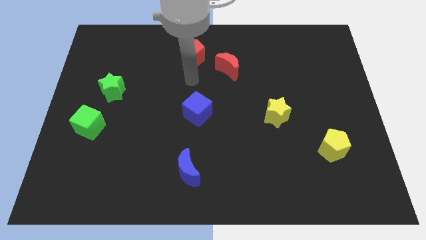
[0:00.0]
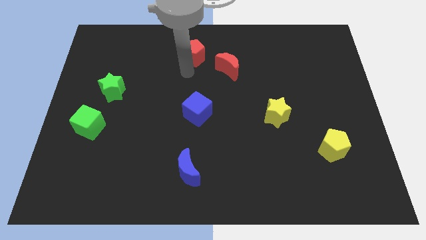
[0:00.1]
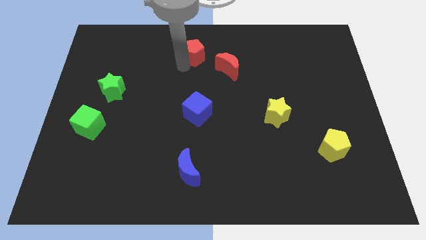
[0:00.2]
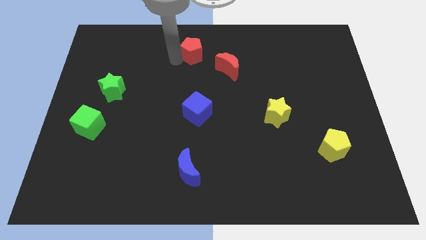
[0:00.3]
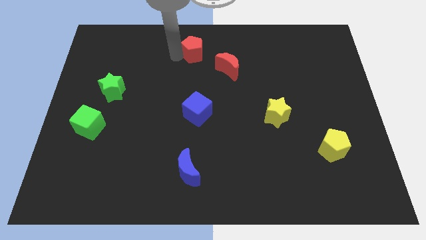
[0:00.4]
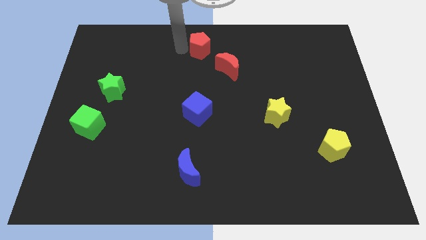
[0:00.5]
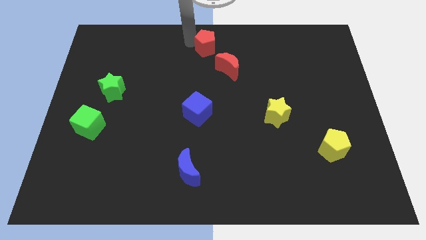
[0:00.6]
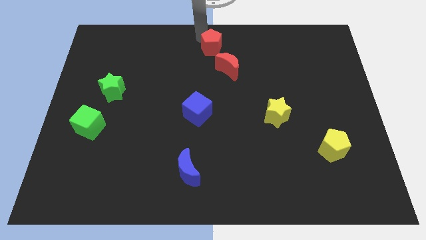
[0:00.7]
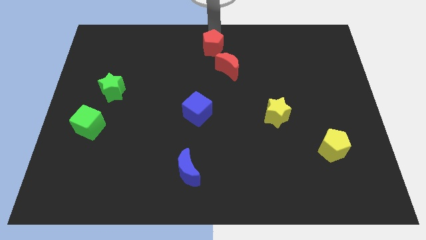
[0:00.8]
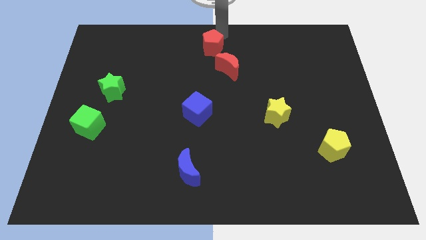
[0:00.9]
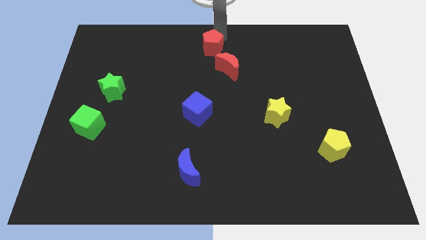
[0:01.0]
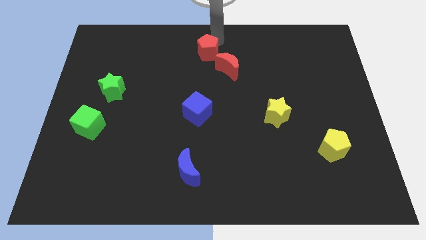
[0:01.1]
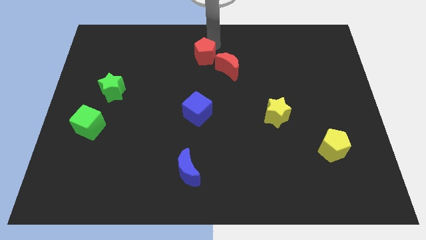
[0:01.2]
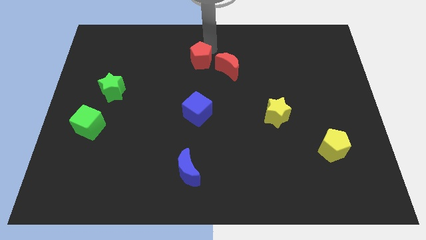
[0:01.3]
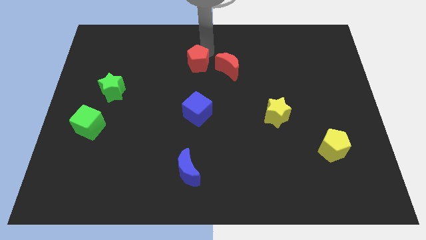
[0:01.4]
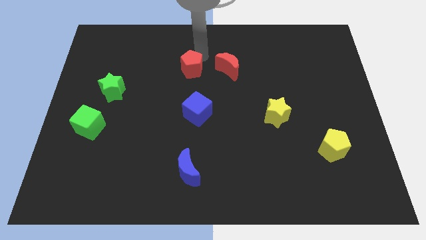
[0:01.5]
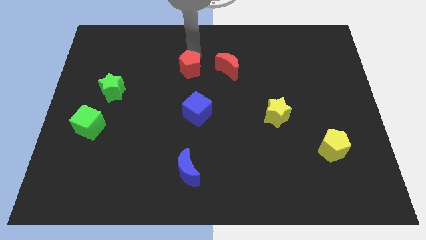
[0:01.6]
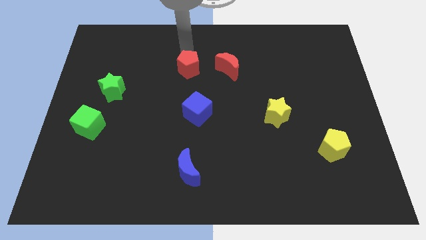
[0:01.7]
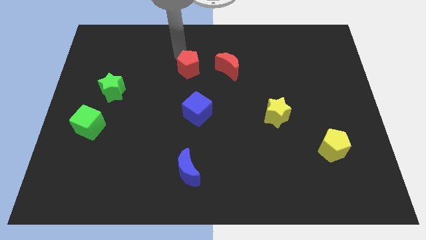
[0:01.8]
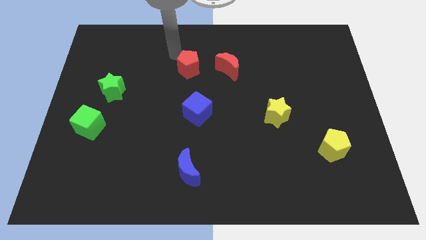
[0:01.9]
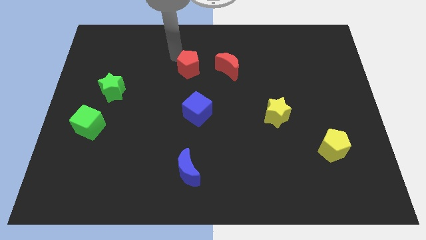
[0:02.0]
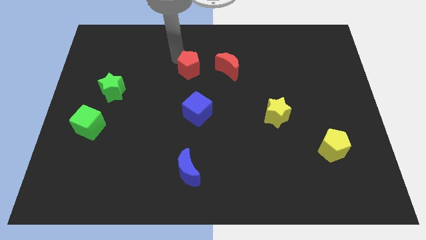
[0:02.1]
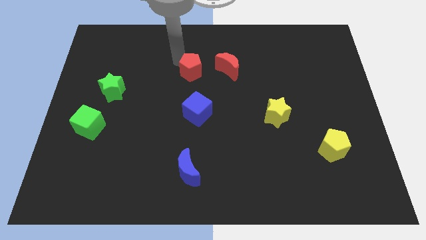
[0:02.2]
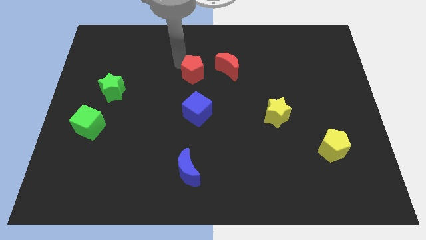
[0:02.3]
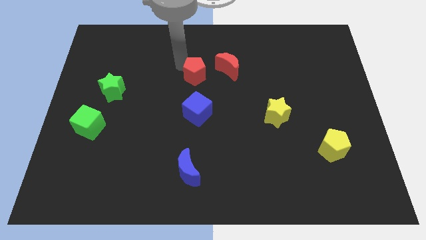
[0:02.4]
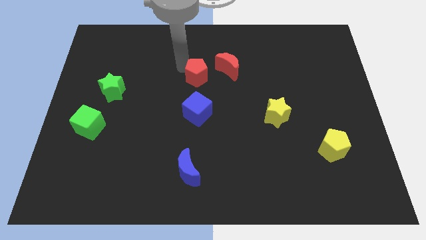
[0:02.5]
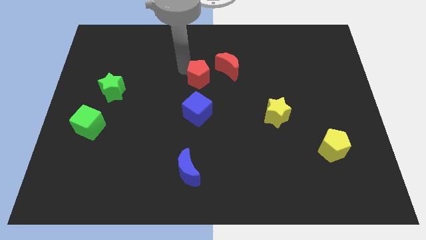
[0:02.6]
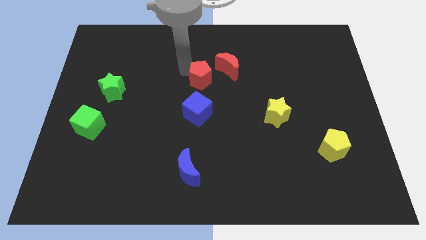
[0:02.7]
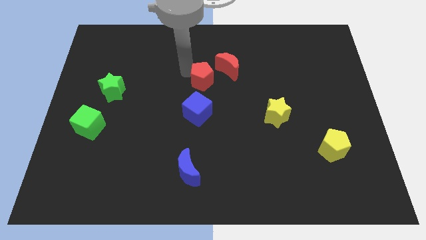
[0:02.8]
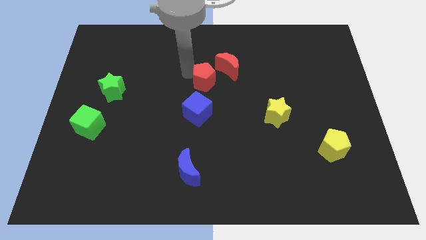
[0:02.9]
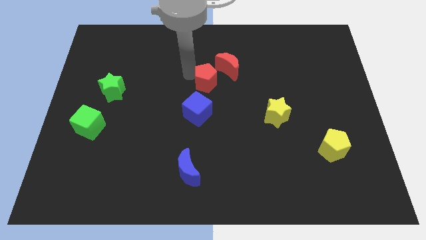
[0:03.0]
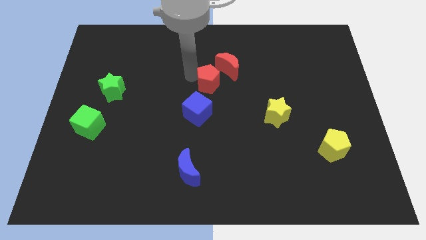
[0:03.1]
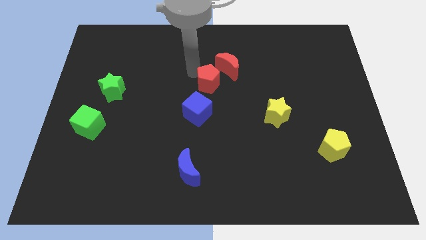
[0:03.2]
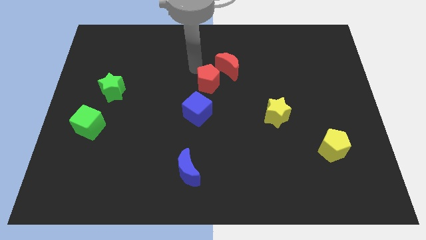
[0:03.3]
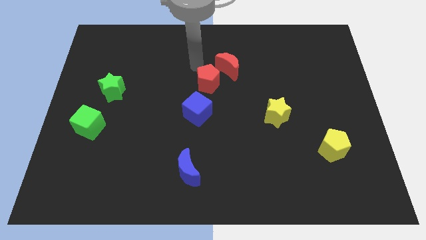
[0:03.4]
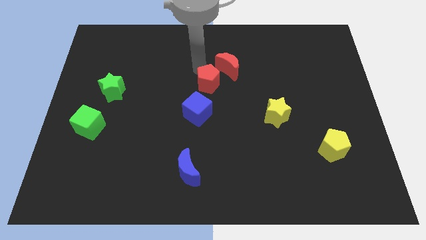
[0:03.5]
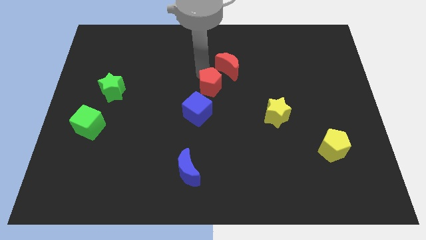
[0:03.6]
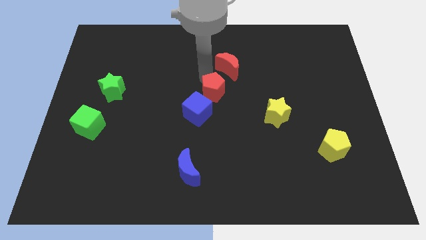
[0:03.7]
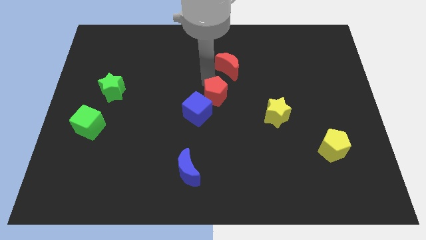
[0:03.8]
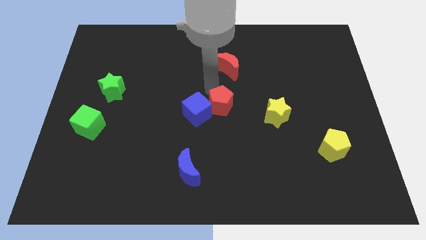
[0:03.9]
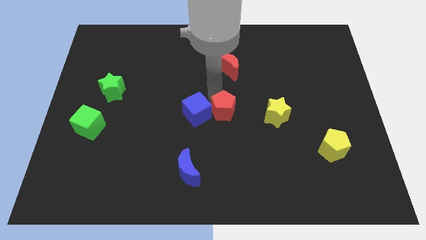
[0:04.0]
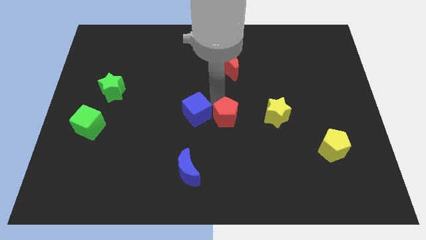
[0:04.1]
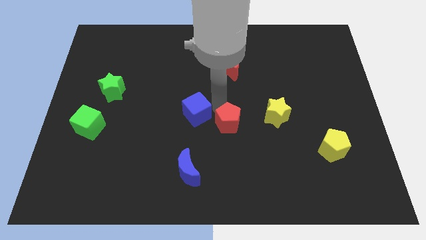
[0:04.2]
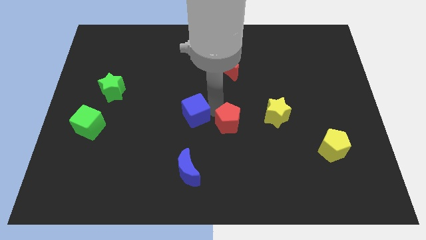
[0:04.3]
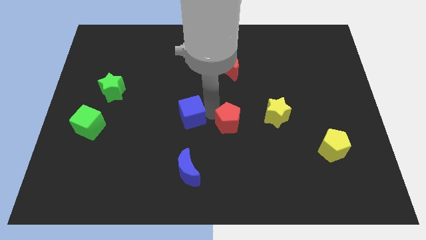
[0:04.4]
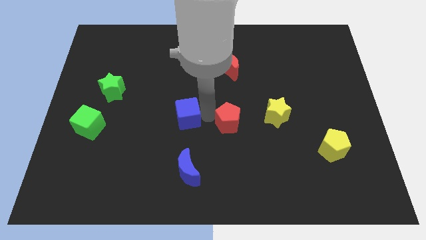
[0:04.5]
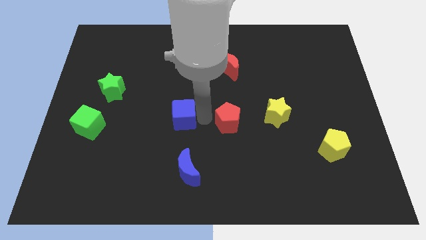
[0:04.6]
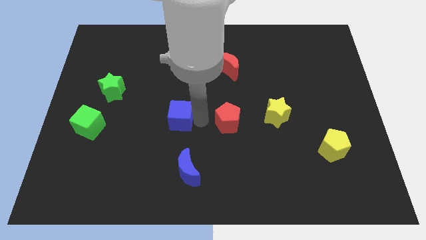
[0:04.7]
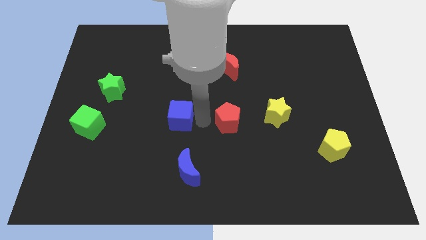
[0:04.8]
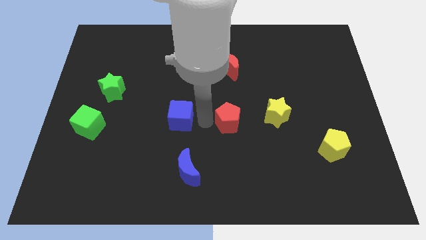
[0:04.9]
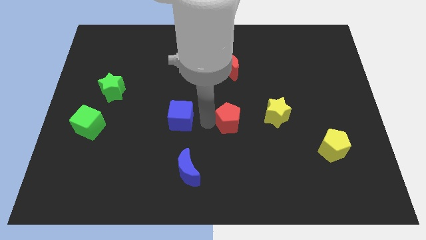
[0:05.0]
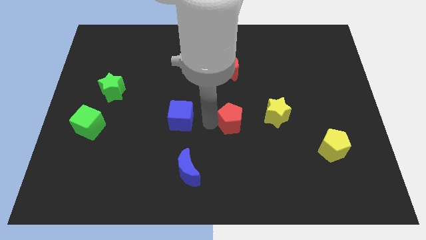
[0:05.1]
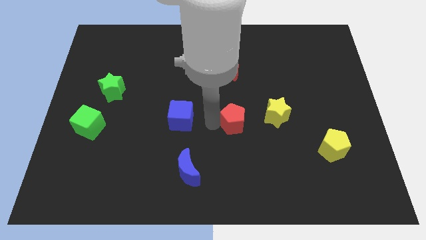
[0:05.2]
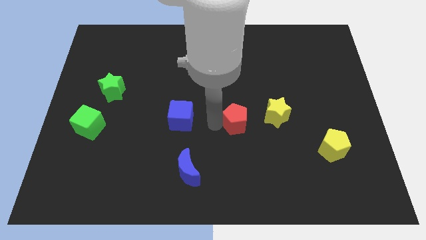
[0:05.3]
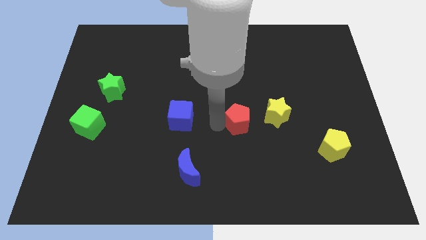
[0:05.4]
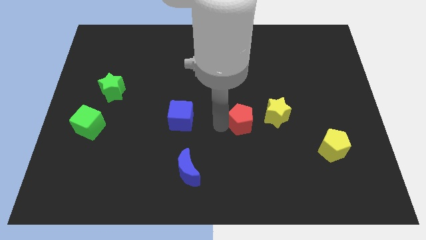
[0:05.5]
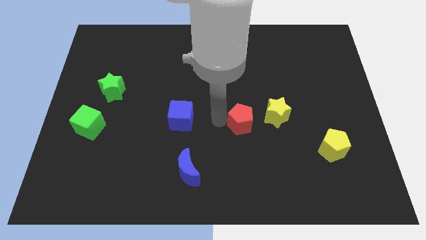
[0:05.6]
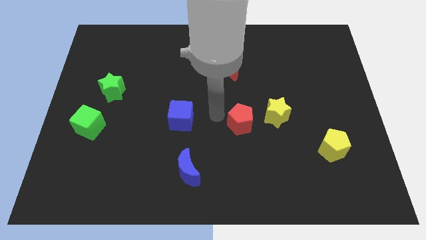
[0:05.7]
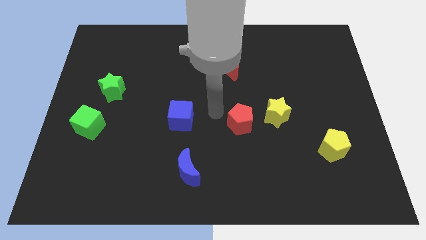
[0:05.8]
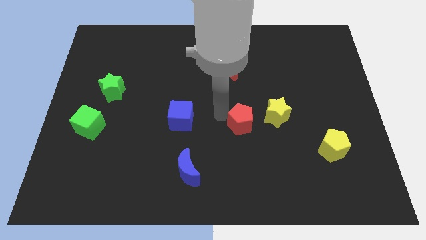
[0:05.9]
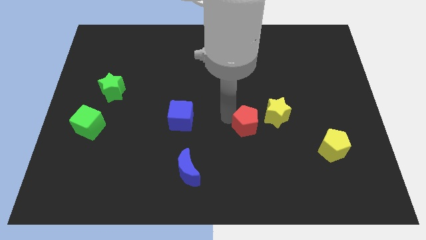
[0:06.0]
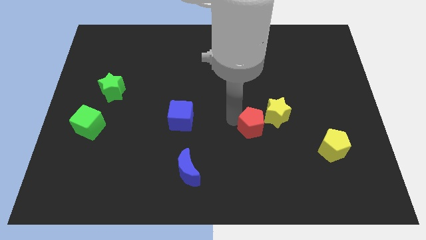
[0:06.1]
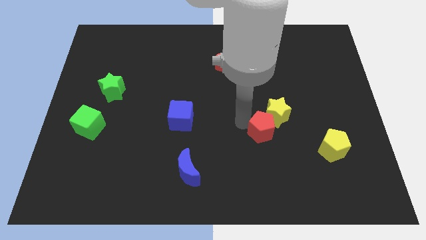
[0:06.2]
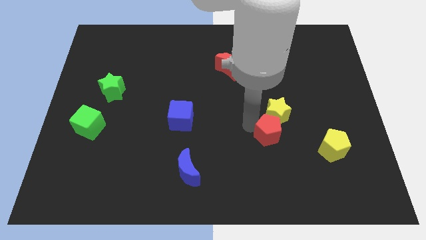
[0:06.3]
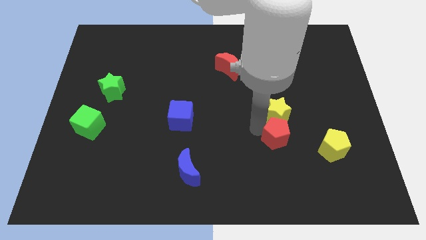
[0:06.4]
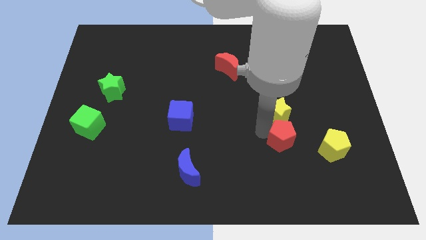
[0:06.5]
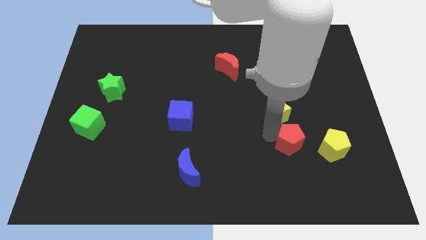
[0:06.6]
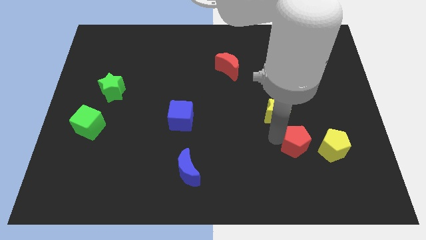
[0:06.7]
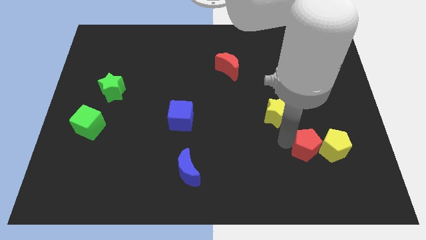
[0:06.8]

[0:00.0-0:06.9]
put the red pentagon next to the yellow pentagon
